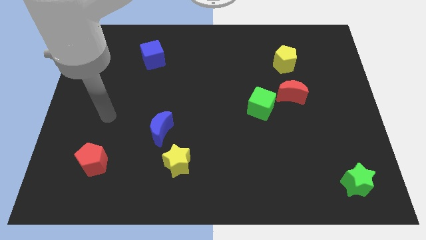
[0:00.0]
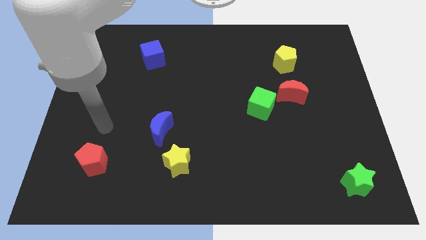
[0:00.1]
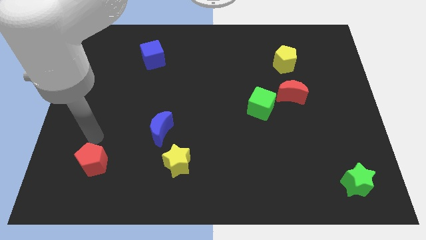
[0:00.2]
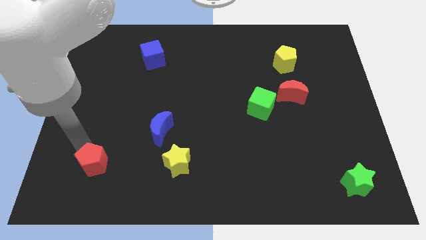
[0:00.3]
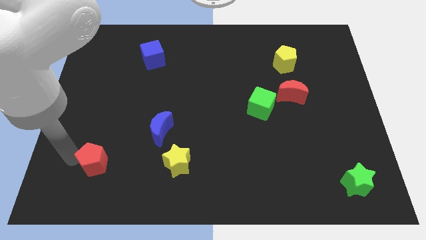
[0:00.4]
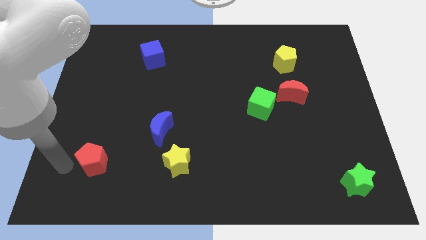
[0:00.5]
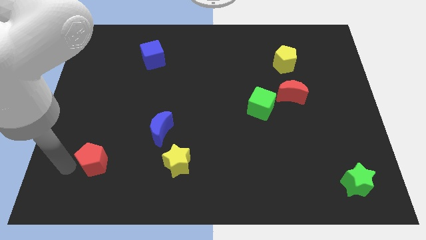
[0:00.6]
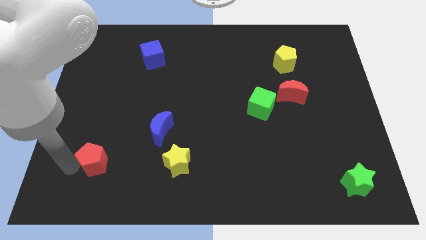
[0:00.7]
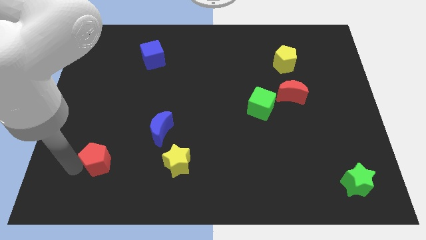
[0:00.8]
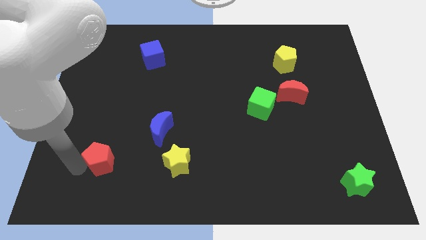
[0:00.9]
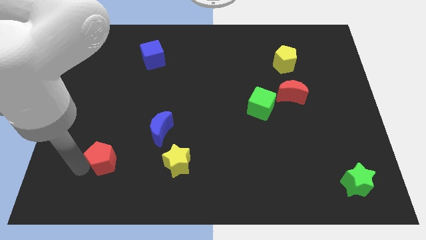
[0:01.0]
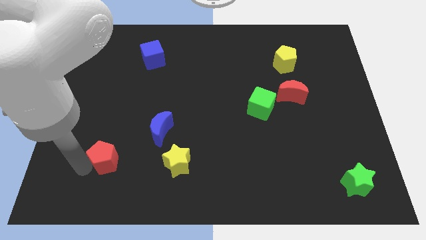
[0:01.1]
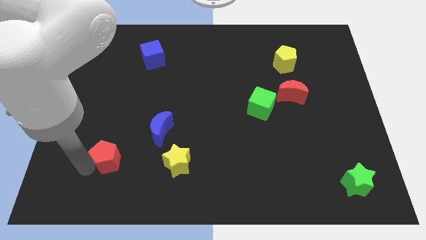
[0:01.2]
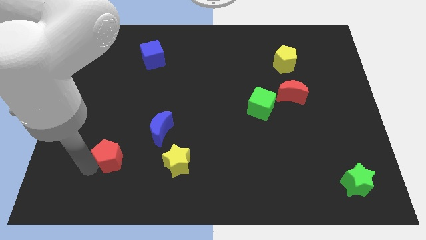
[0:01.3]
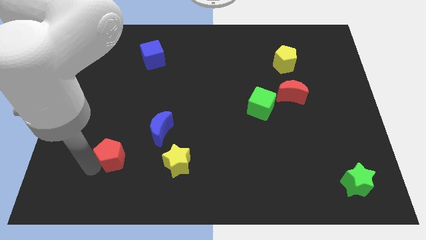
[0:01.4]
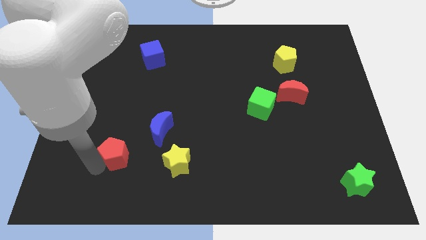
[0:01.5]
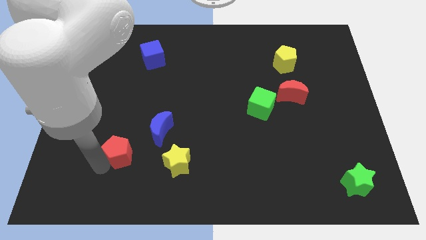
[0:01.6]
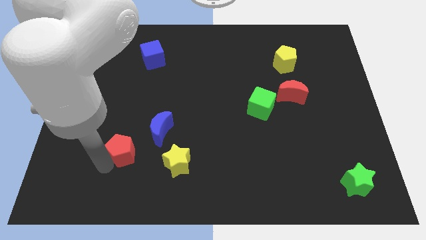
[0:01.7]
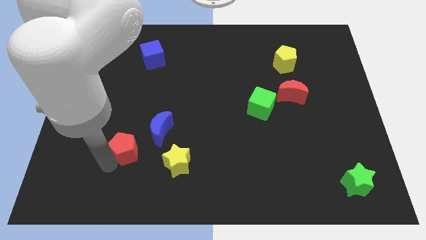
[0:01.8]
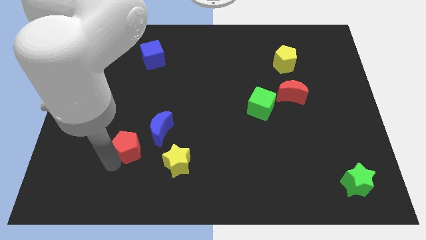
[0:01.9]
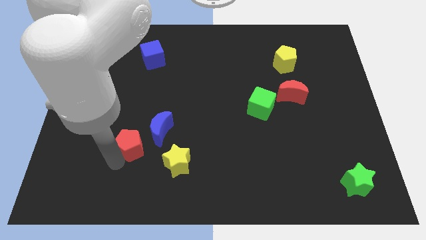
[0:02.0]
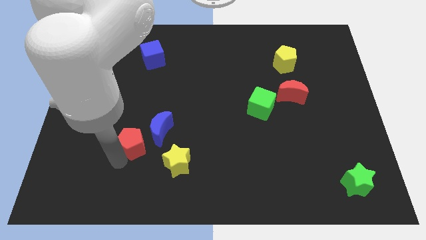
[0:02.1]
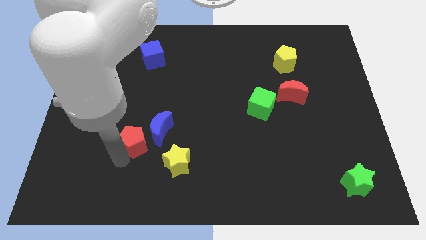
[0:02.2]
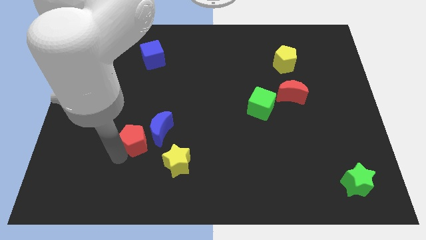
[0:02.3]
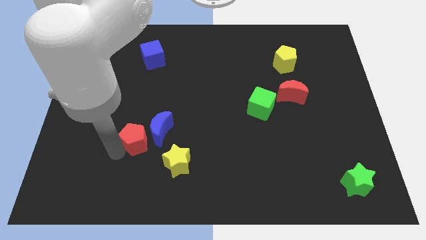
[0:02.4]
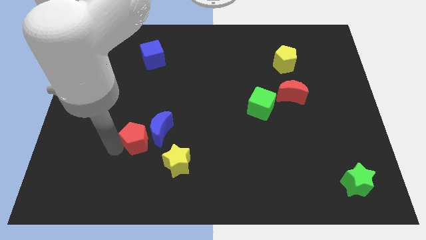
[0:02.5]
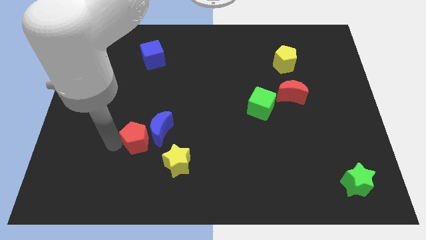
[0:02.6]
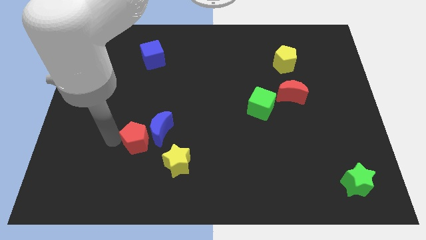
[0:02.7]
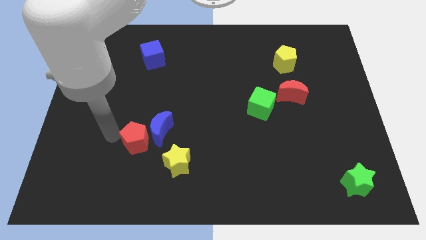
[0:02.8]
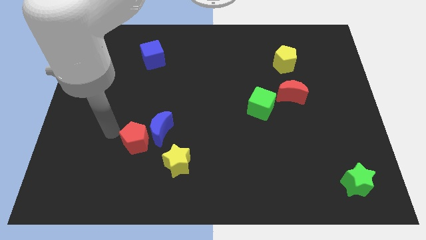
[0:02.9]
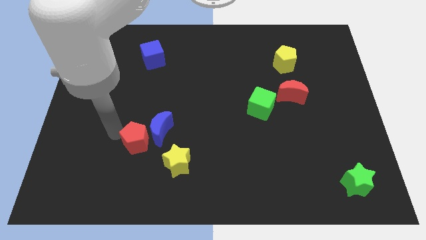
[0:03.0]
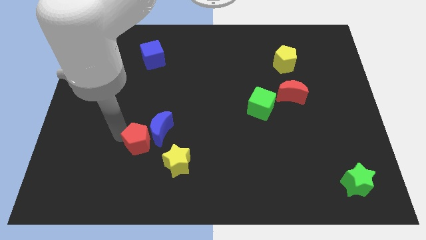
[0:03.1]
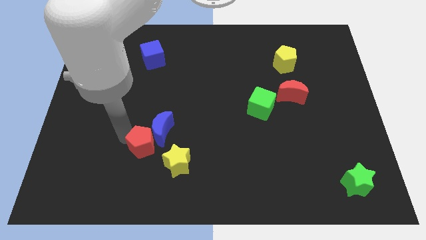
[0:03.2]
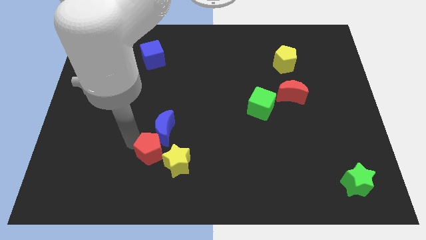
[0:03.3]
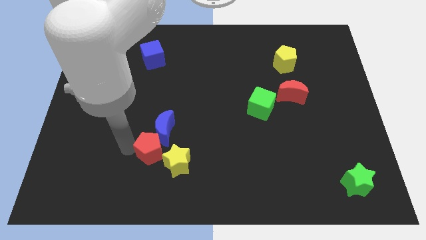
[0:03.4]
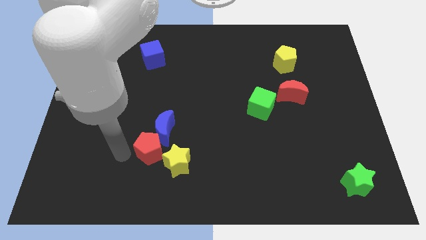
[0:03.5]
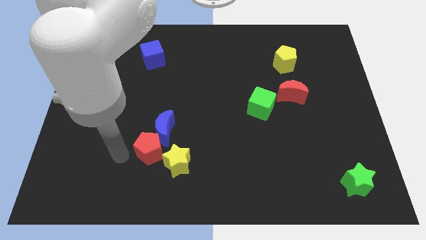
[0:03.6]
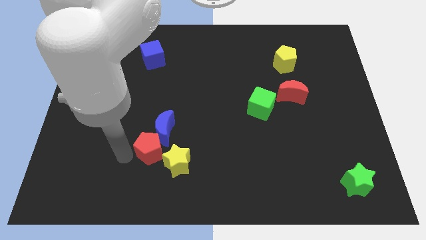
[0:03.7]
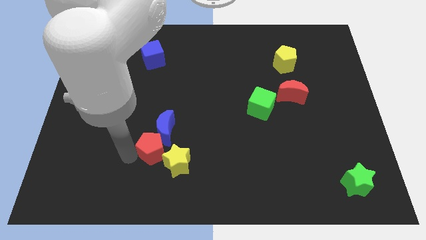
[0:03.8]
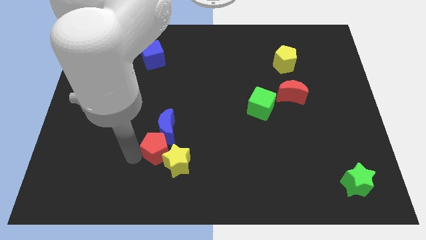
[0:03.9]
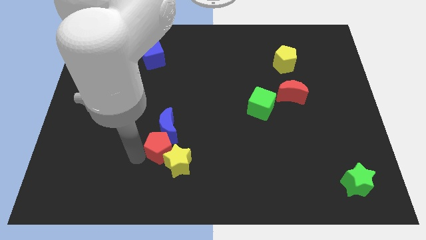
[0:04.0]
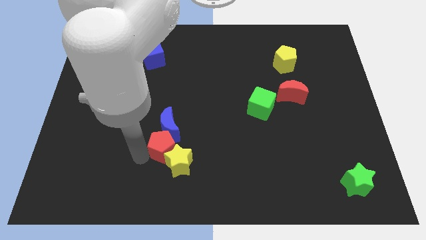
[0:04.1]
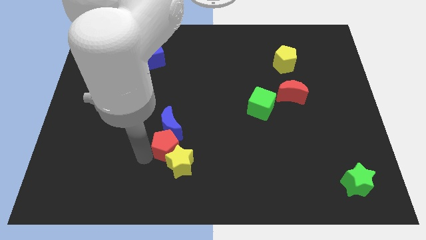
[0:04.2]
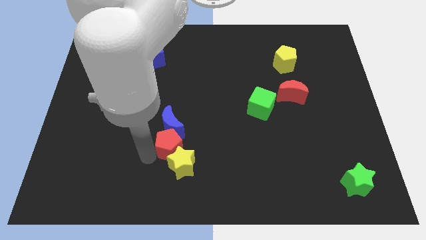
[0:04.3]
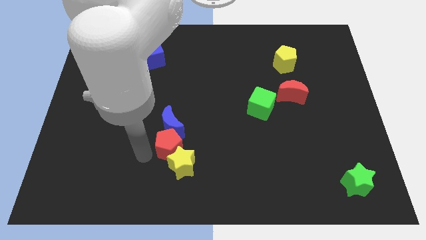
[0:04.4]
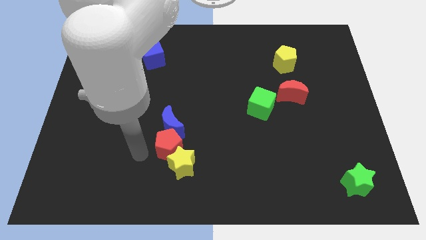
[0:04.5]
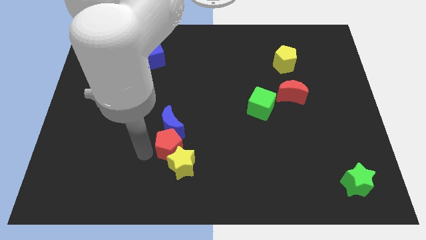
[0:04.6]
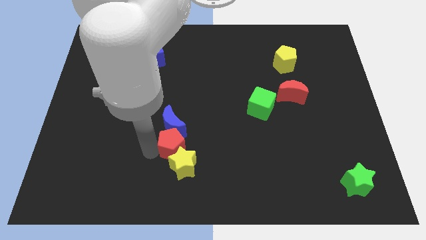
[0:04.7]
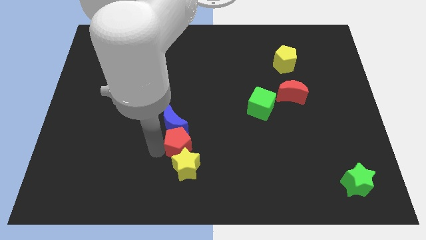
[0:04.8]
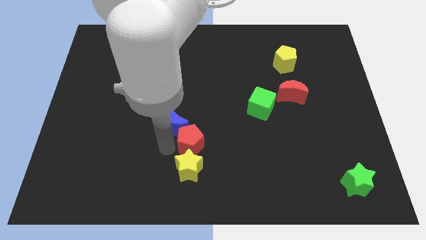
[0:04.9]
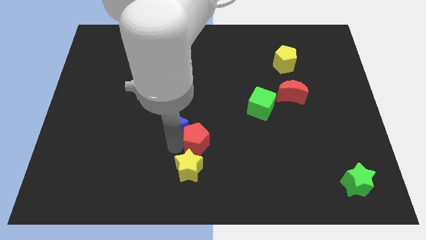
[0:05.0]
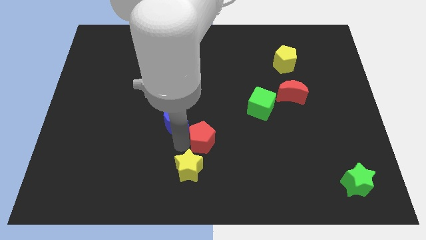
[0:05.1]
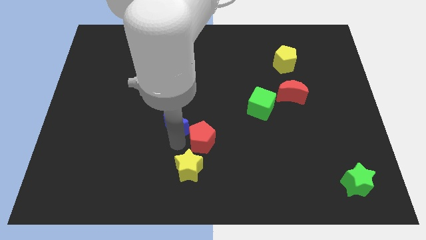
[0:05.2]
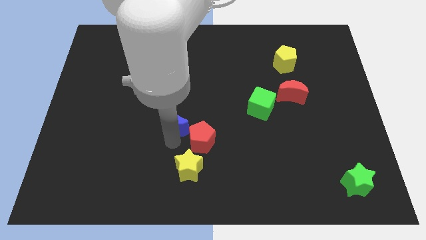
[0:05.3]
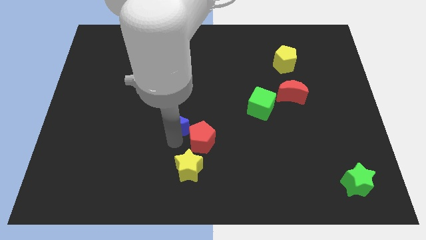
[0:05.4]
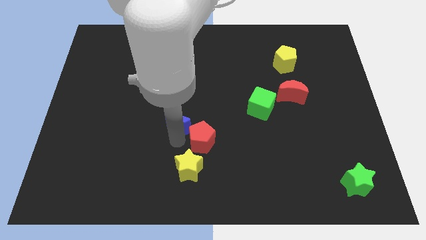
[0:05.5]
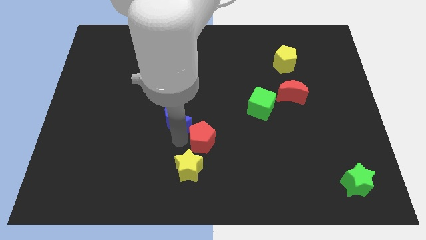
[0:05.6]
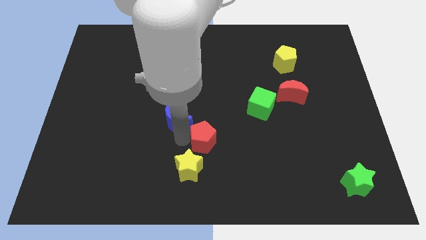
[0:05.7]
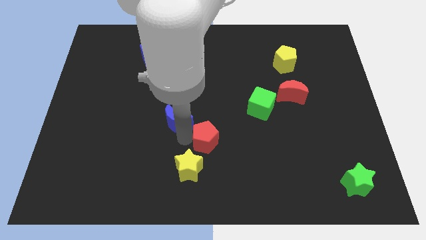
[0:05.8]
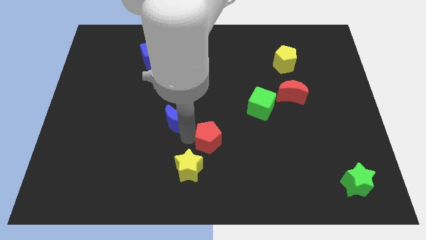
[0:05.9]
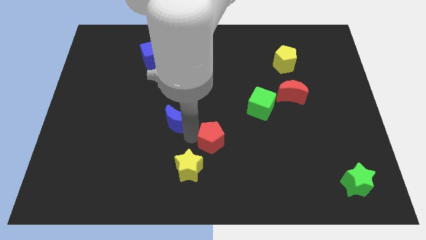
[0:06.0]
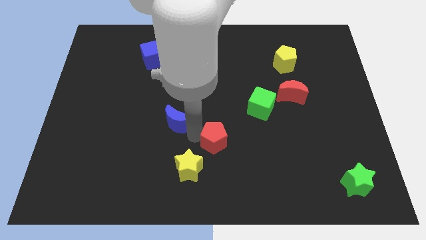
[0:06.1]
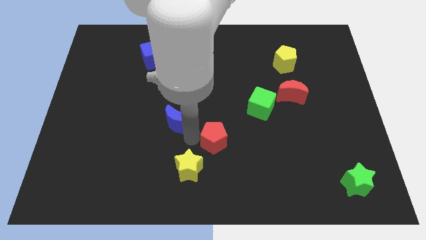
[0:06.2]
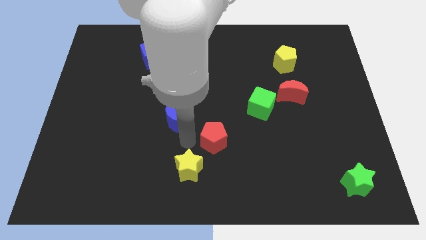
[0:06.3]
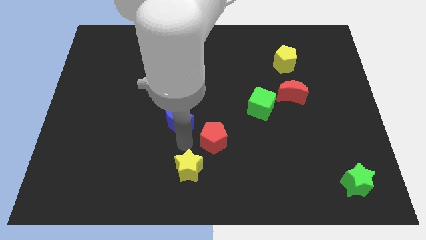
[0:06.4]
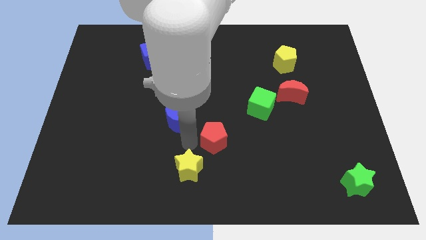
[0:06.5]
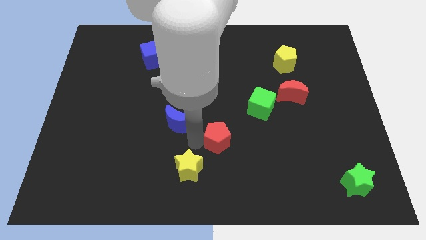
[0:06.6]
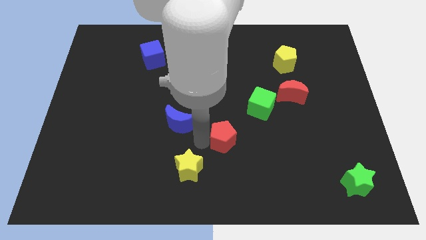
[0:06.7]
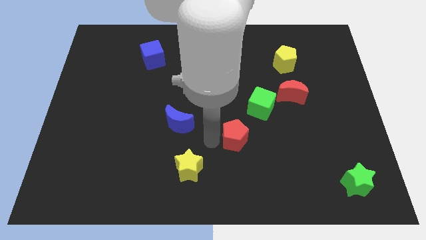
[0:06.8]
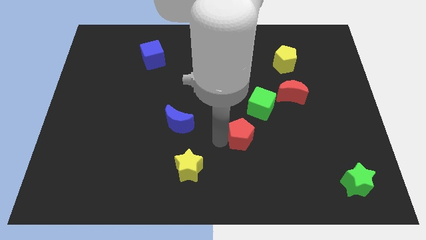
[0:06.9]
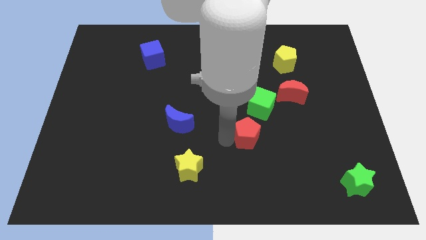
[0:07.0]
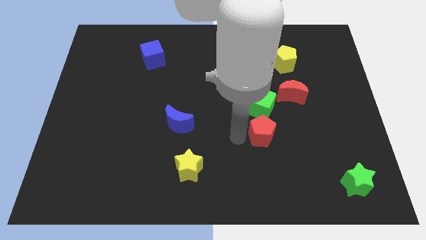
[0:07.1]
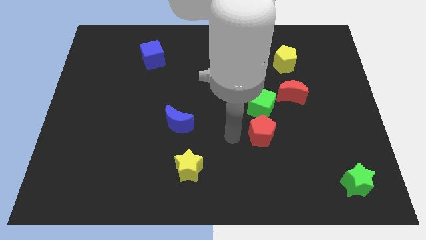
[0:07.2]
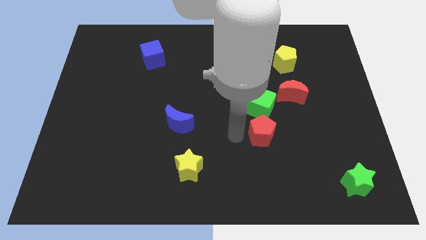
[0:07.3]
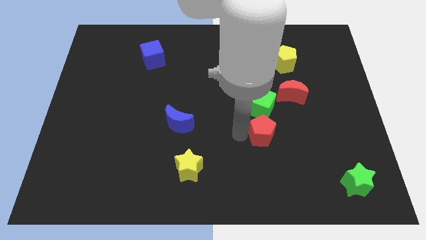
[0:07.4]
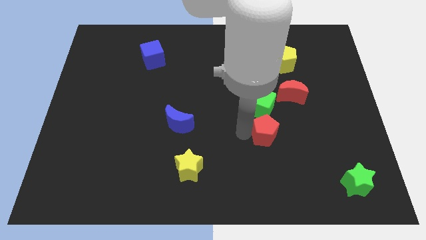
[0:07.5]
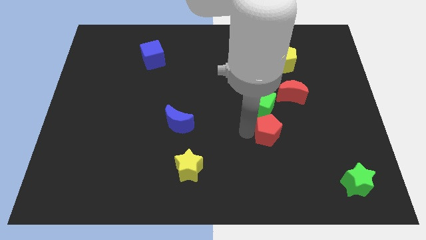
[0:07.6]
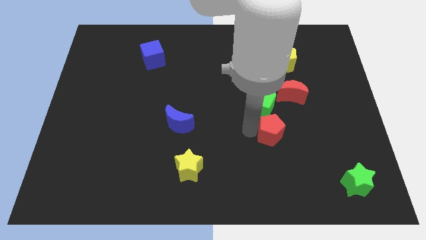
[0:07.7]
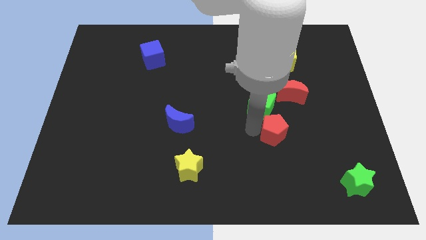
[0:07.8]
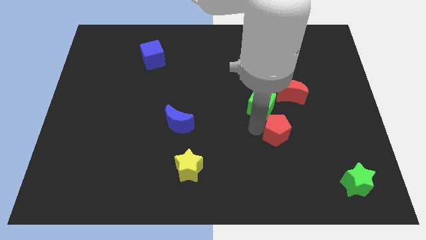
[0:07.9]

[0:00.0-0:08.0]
move the red pentagon to the bottom side of the red moon
